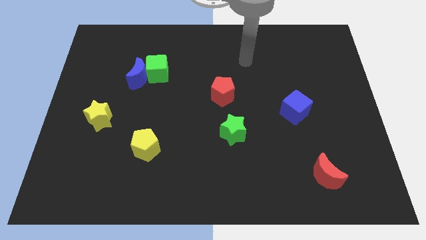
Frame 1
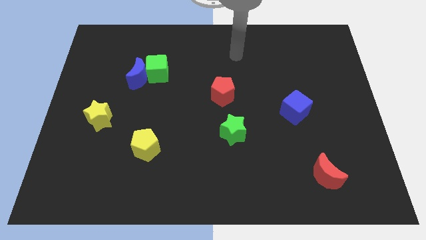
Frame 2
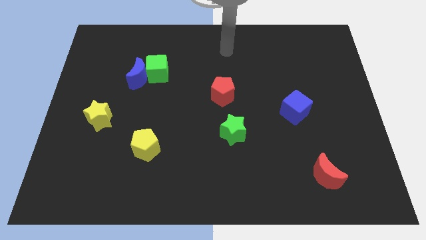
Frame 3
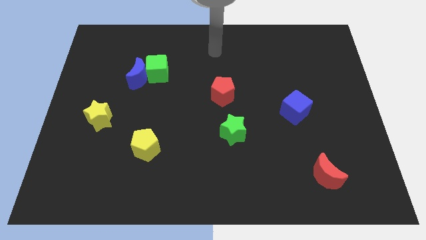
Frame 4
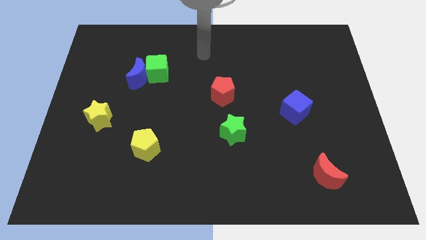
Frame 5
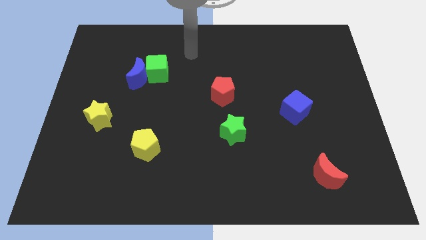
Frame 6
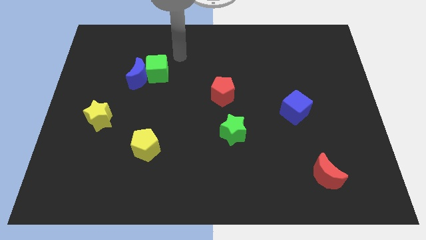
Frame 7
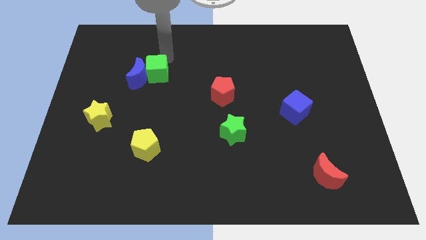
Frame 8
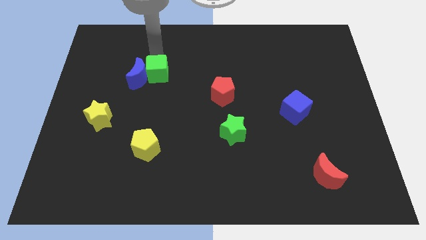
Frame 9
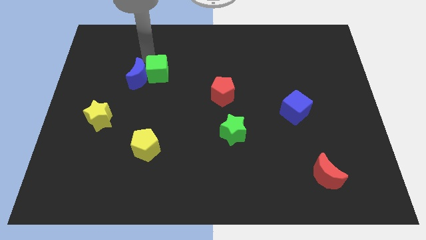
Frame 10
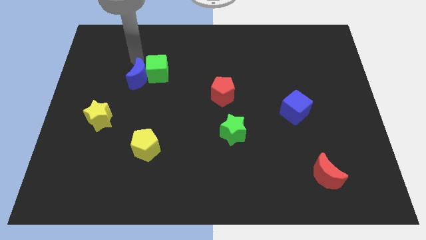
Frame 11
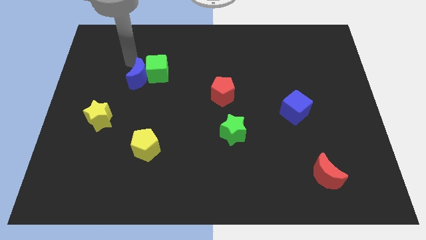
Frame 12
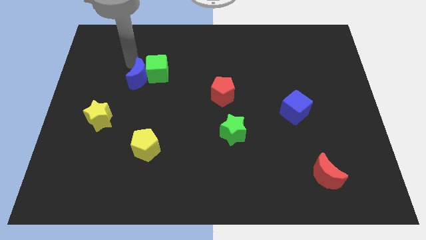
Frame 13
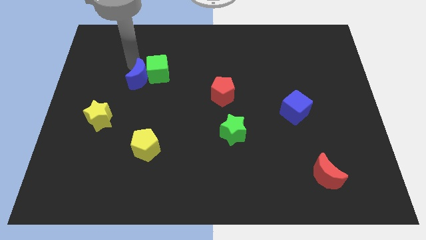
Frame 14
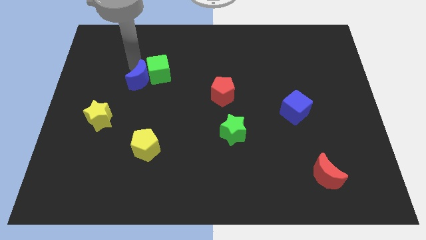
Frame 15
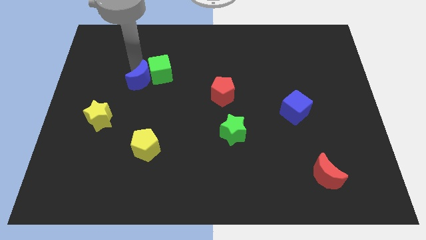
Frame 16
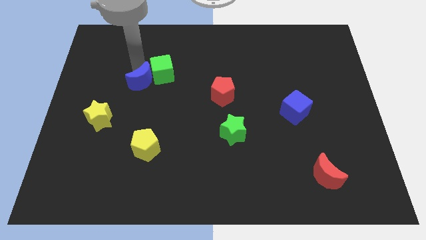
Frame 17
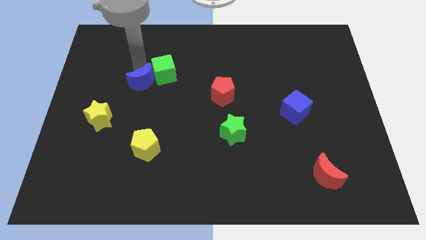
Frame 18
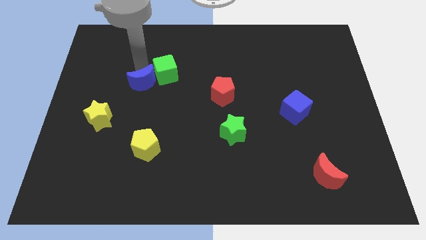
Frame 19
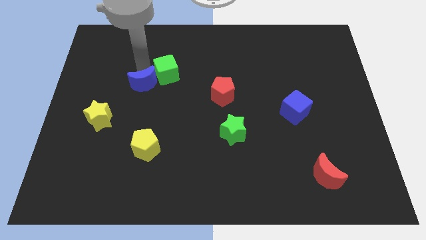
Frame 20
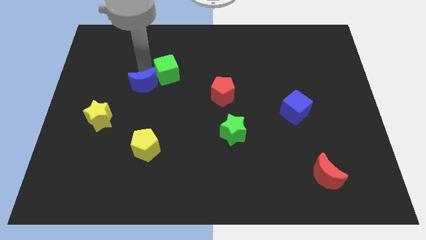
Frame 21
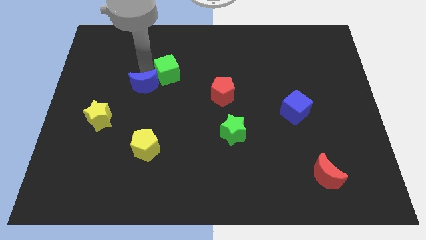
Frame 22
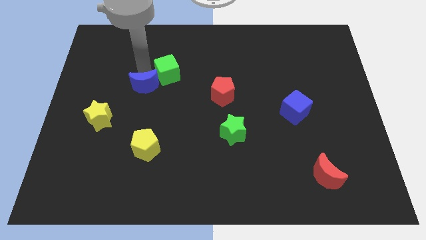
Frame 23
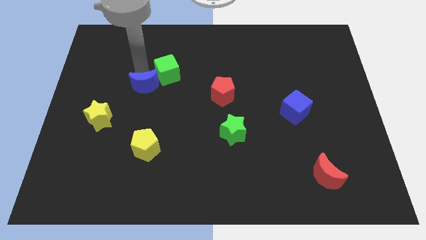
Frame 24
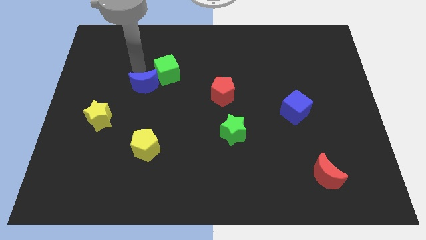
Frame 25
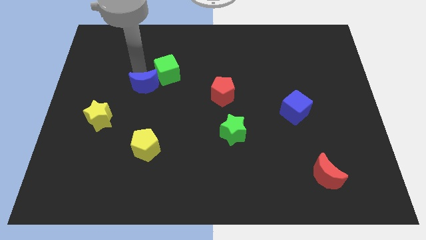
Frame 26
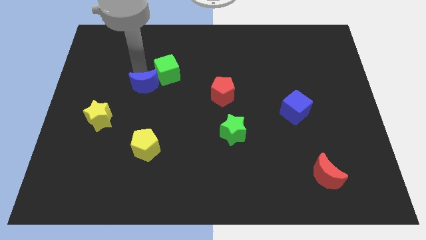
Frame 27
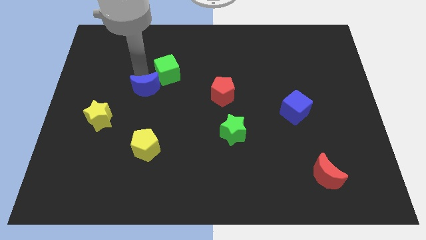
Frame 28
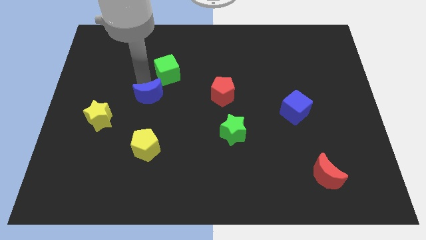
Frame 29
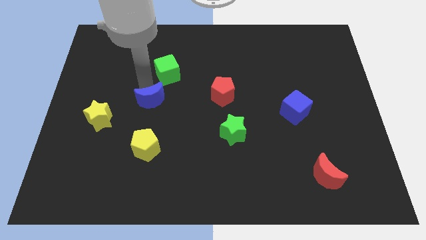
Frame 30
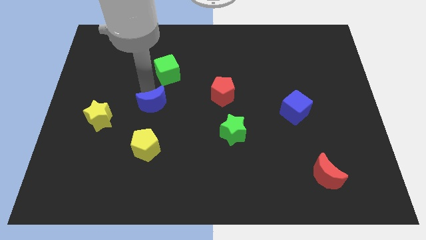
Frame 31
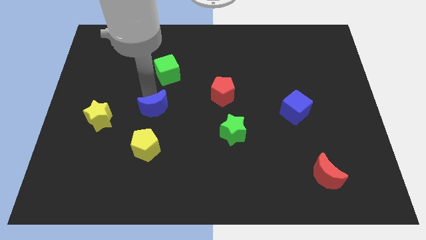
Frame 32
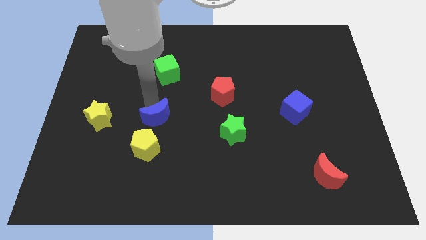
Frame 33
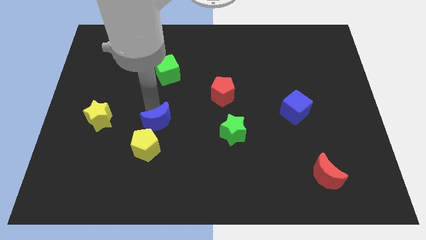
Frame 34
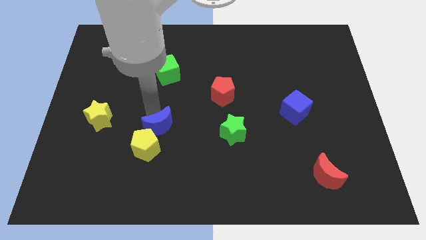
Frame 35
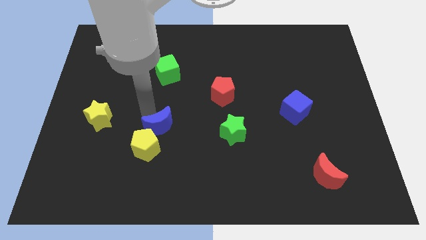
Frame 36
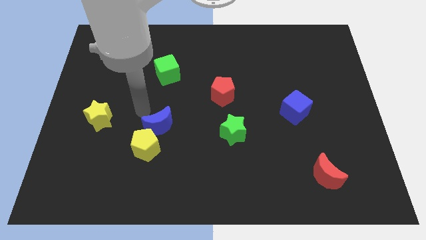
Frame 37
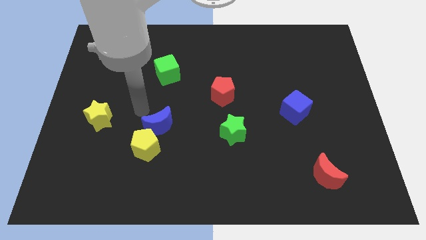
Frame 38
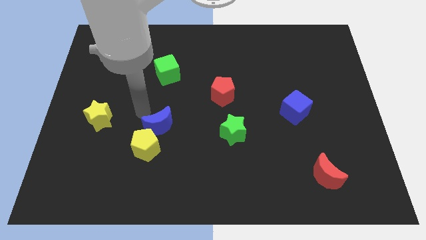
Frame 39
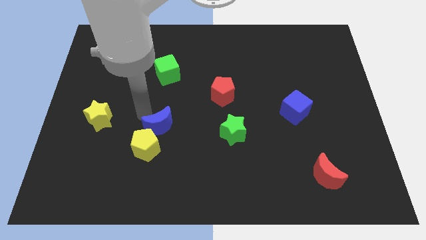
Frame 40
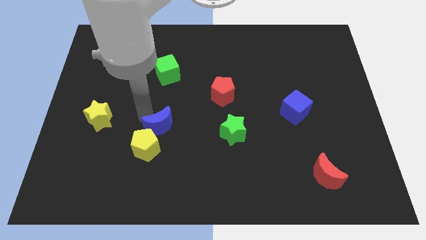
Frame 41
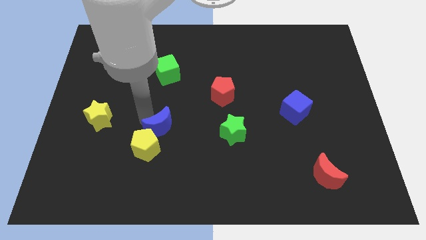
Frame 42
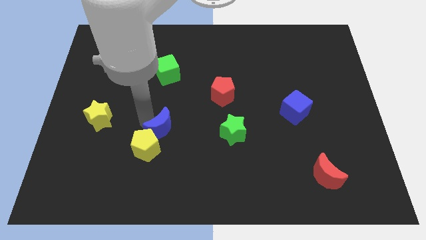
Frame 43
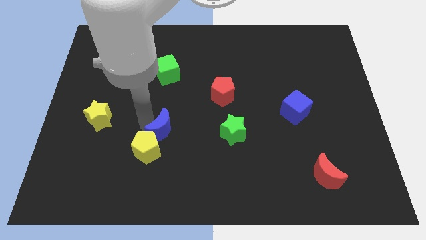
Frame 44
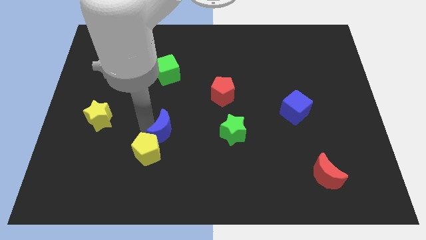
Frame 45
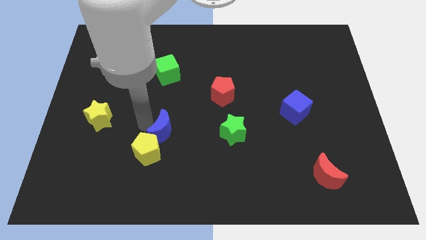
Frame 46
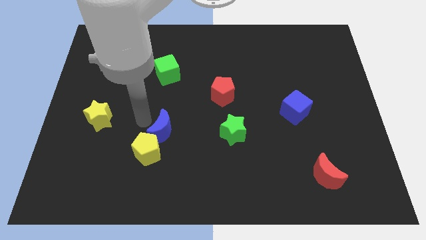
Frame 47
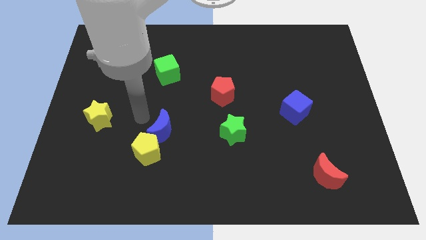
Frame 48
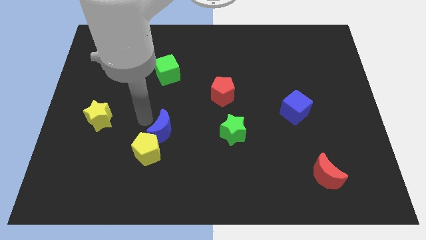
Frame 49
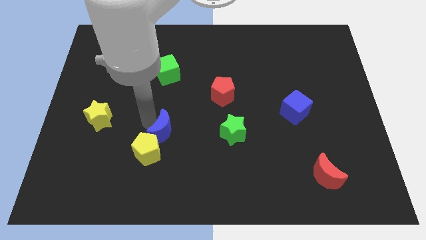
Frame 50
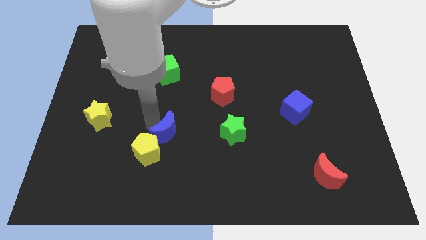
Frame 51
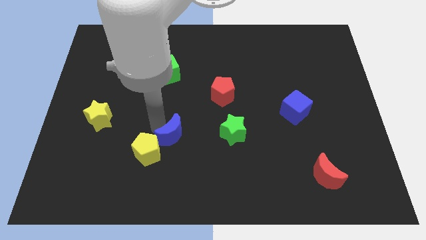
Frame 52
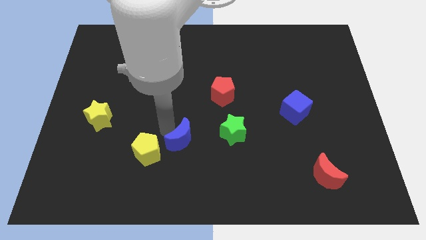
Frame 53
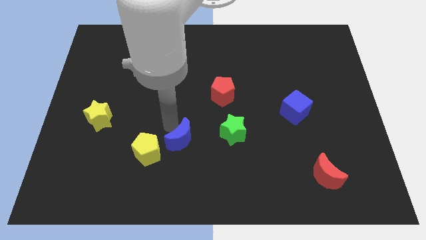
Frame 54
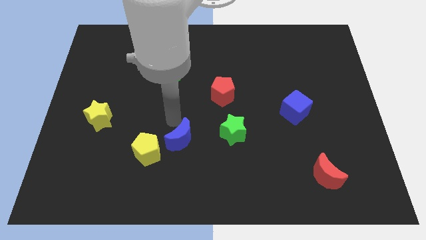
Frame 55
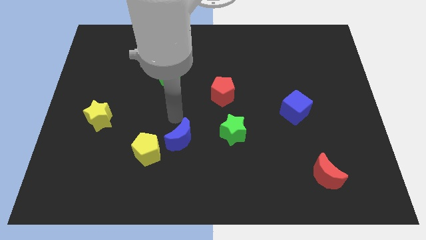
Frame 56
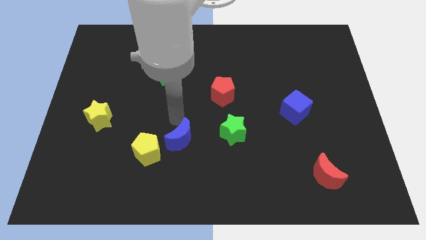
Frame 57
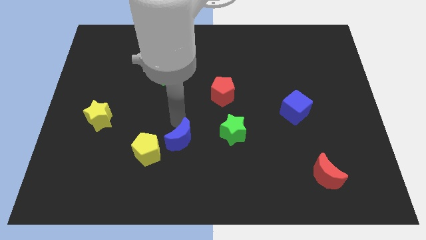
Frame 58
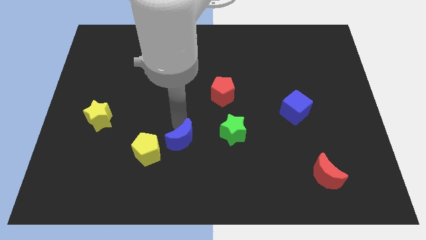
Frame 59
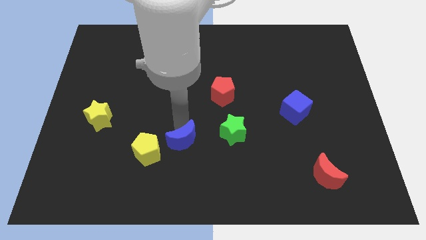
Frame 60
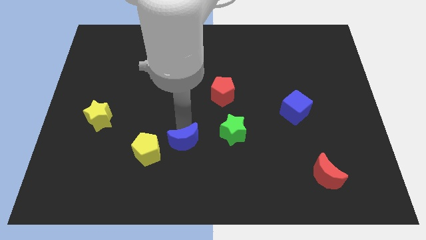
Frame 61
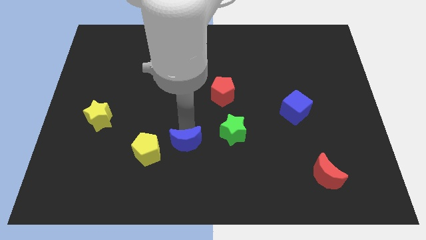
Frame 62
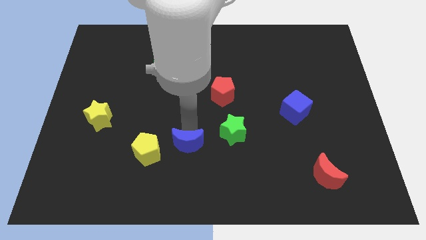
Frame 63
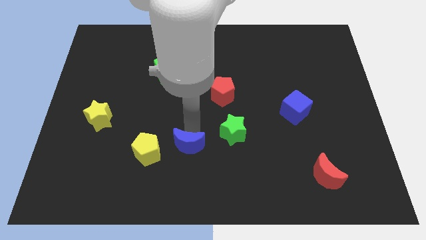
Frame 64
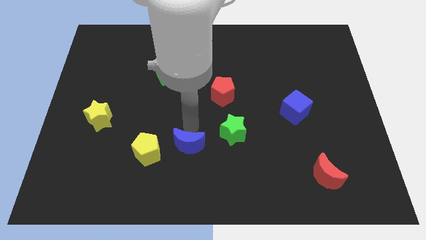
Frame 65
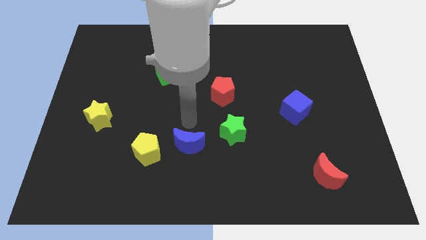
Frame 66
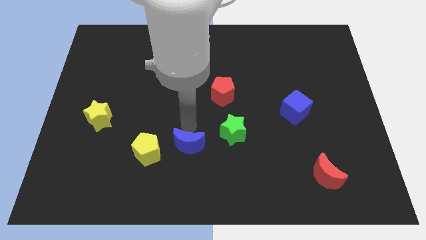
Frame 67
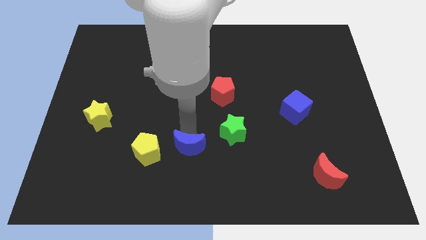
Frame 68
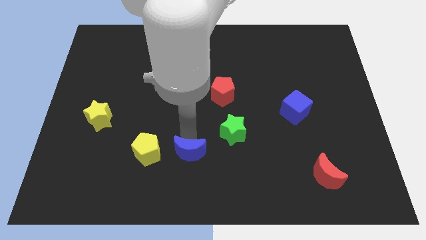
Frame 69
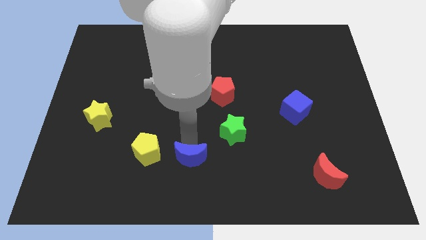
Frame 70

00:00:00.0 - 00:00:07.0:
put the blue moon to the bottom
